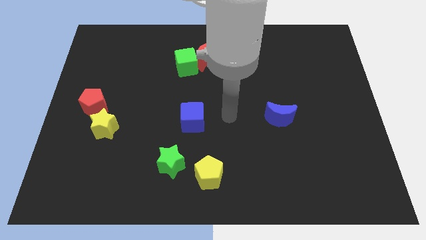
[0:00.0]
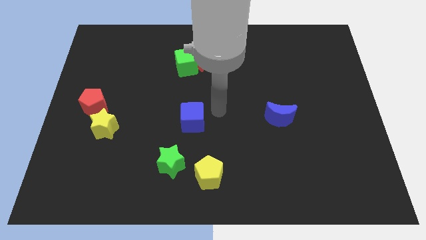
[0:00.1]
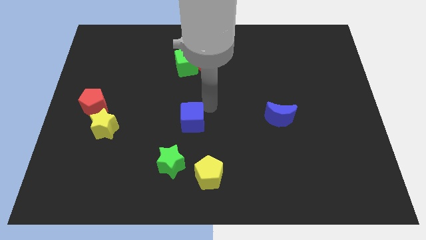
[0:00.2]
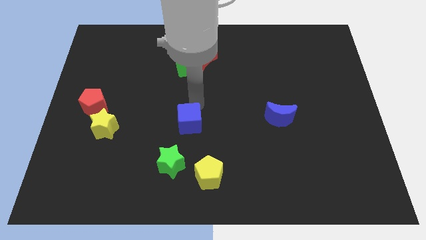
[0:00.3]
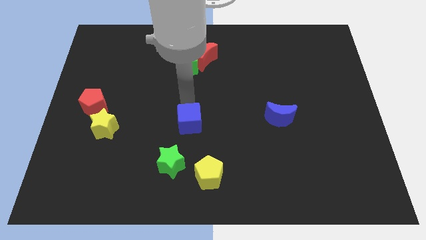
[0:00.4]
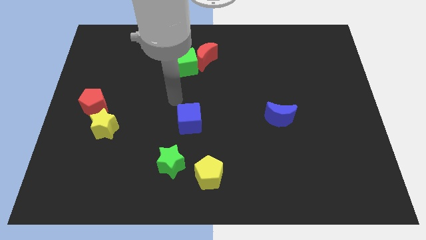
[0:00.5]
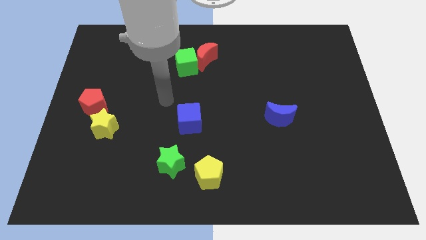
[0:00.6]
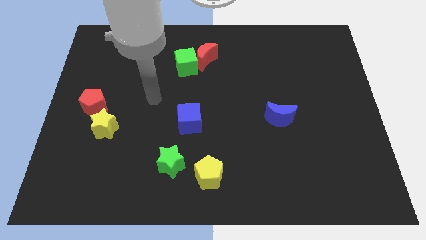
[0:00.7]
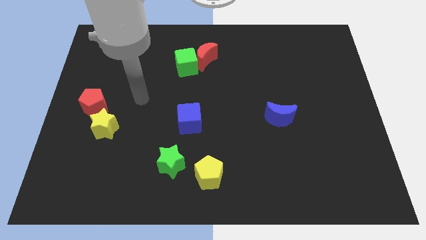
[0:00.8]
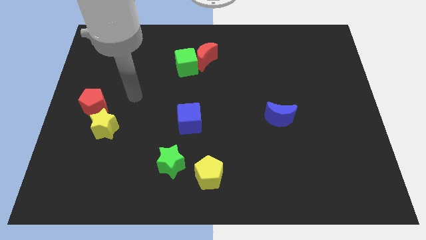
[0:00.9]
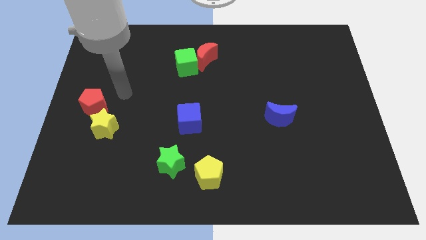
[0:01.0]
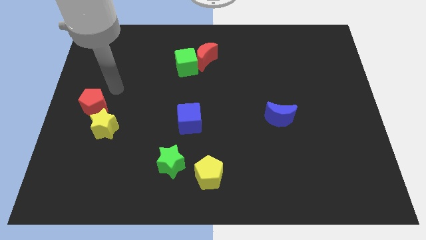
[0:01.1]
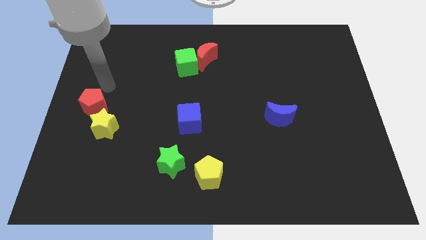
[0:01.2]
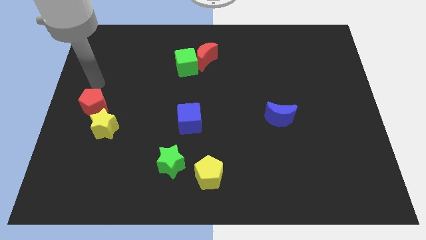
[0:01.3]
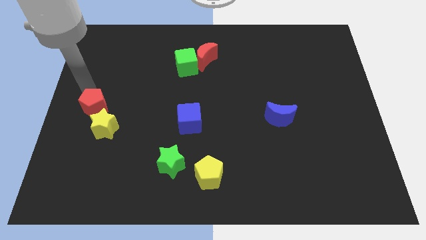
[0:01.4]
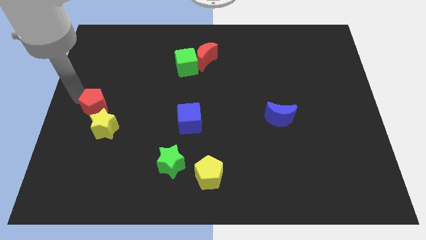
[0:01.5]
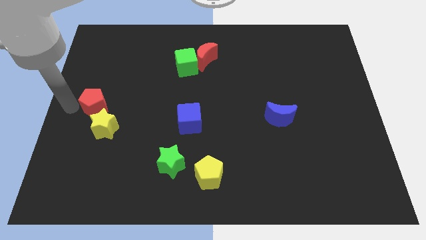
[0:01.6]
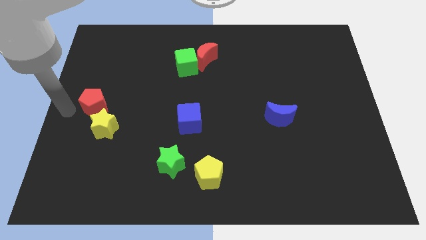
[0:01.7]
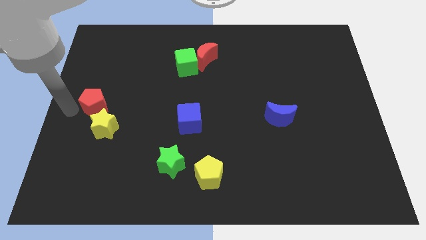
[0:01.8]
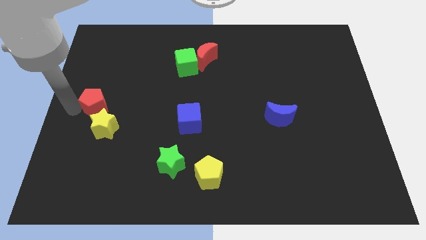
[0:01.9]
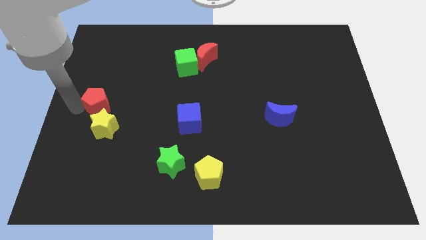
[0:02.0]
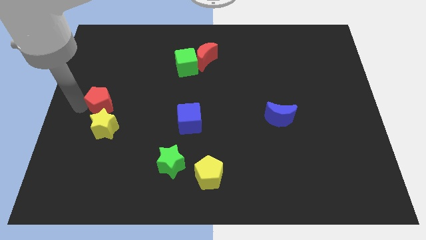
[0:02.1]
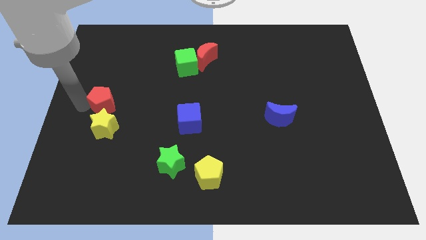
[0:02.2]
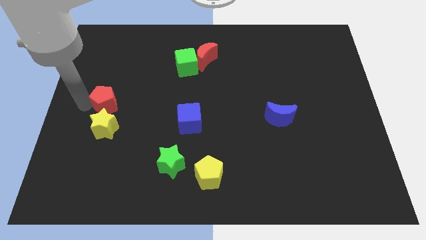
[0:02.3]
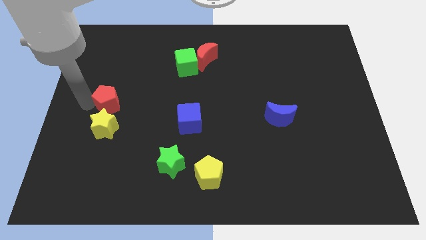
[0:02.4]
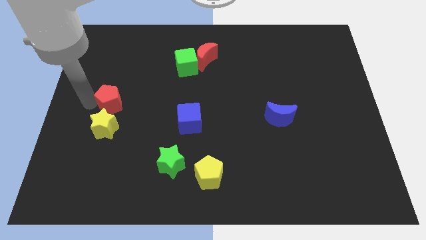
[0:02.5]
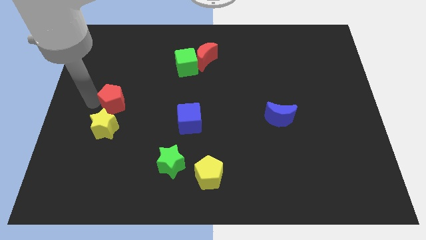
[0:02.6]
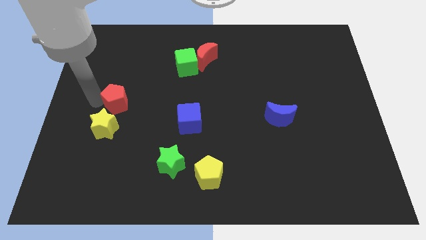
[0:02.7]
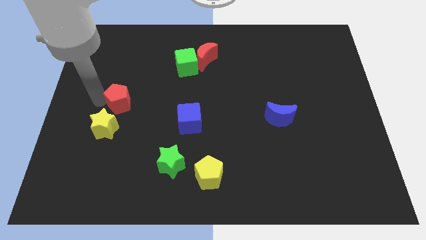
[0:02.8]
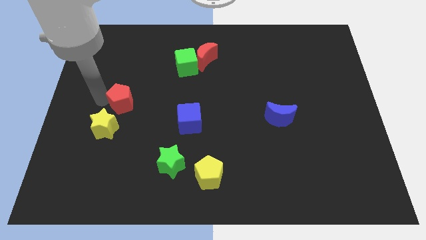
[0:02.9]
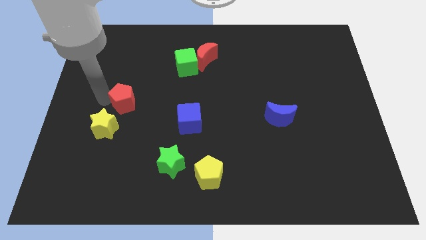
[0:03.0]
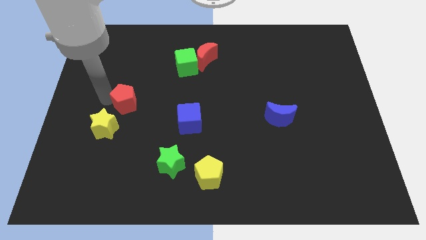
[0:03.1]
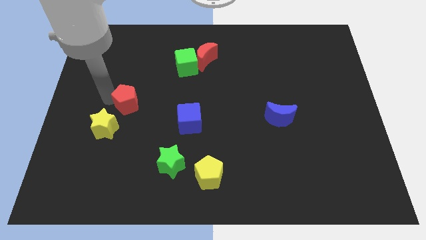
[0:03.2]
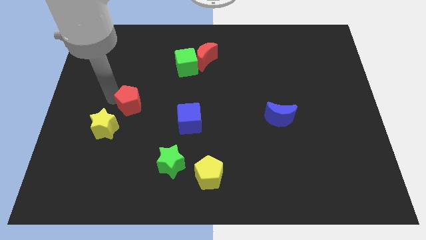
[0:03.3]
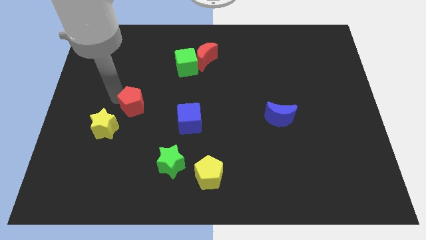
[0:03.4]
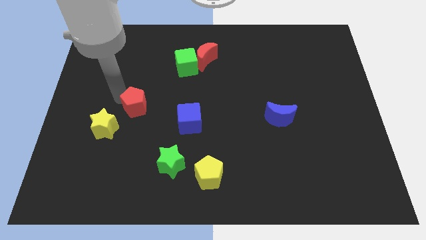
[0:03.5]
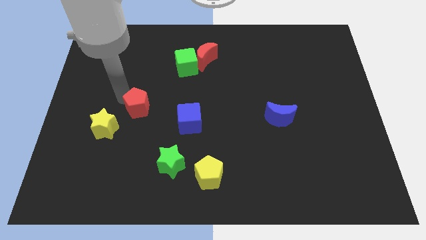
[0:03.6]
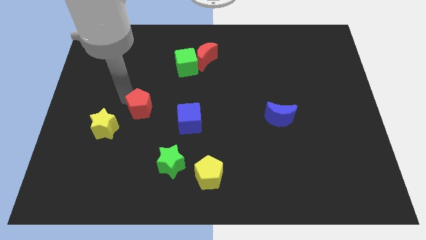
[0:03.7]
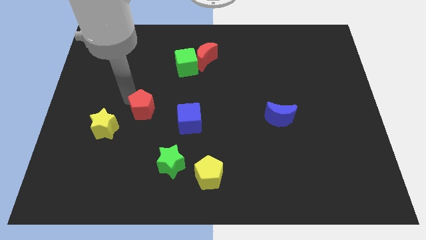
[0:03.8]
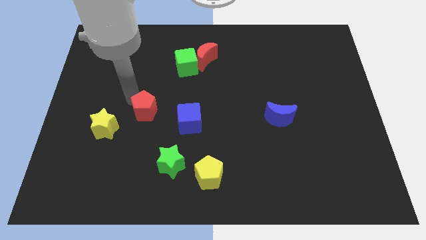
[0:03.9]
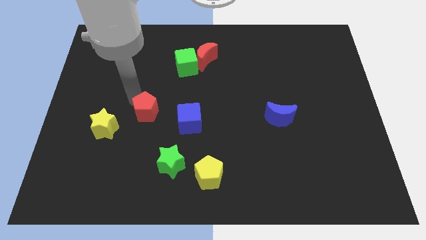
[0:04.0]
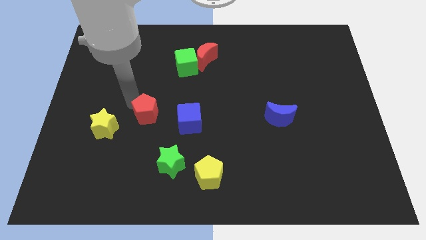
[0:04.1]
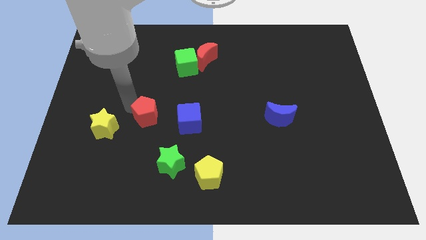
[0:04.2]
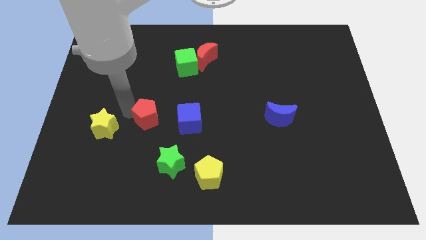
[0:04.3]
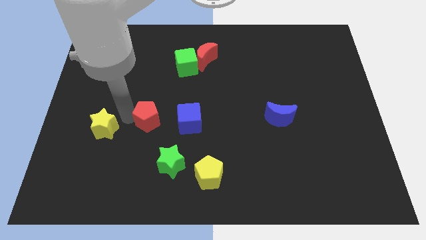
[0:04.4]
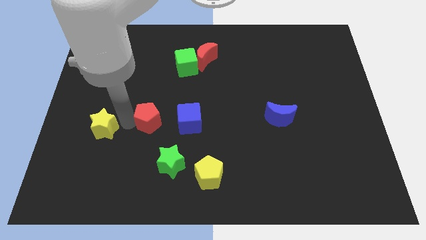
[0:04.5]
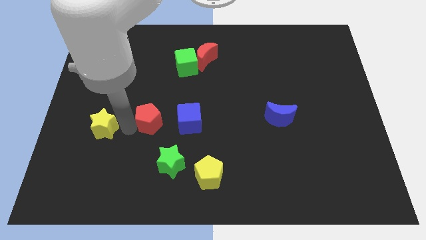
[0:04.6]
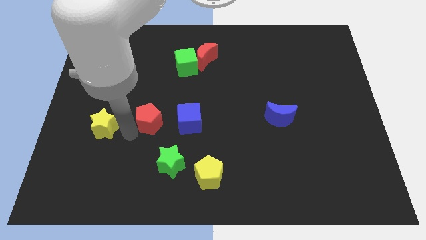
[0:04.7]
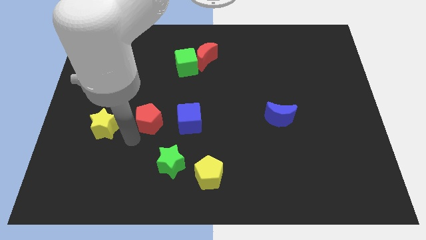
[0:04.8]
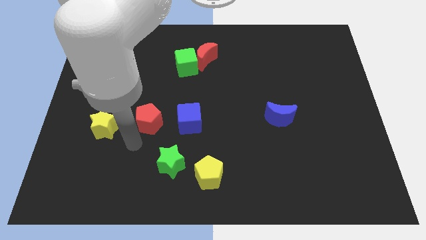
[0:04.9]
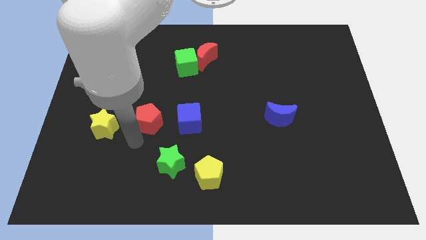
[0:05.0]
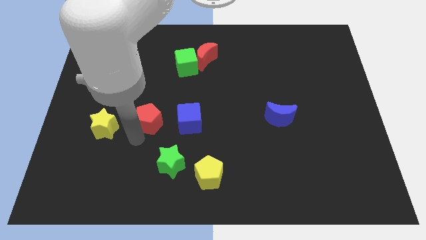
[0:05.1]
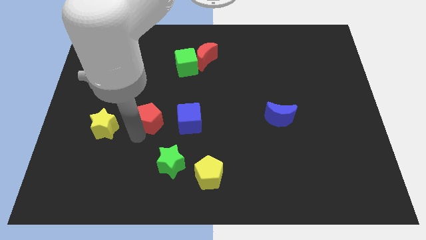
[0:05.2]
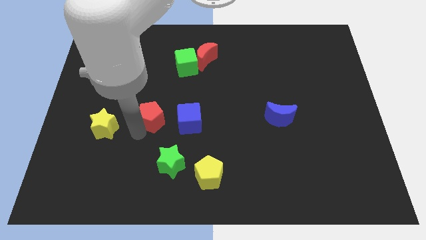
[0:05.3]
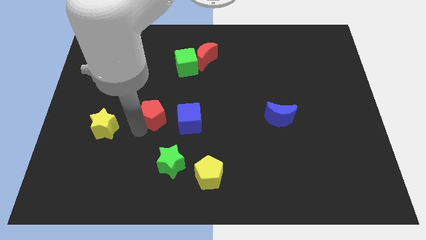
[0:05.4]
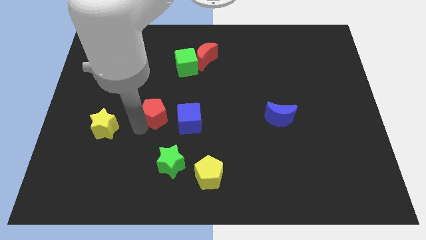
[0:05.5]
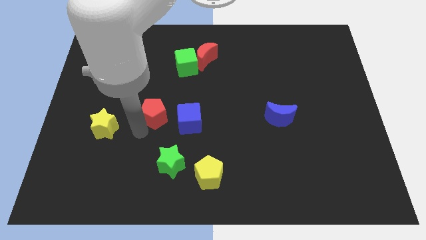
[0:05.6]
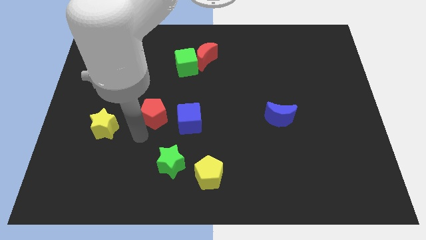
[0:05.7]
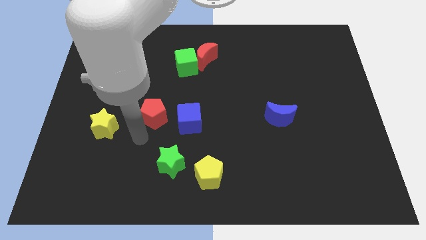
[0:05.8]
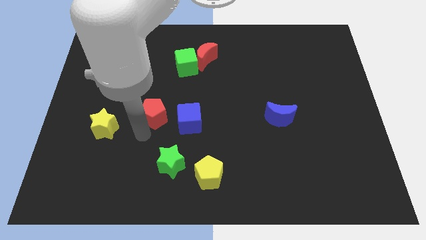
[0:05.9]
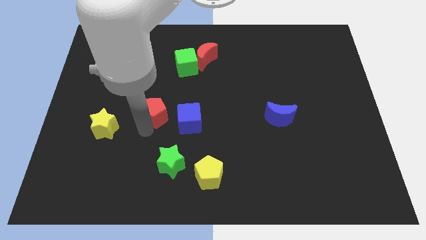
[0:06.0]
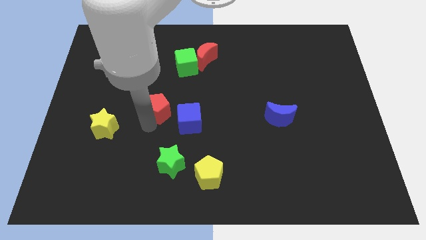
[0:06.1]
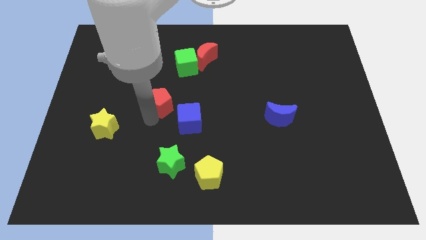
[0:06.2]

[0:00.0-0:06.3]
push the red pentagon to the middle

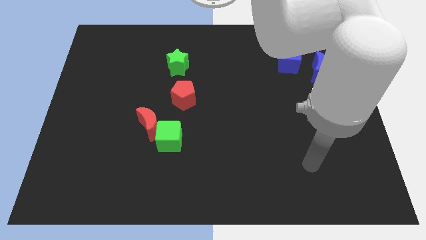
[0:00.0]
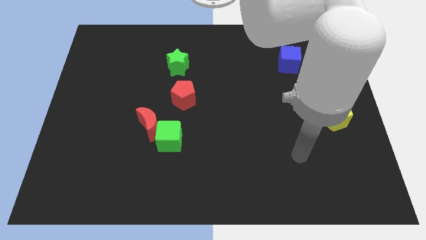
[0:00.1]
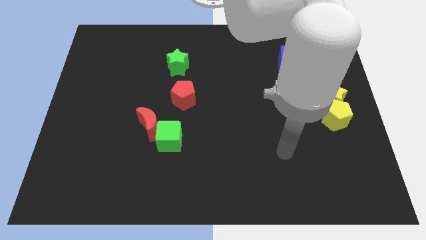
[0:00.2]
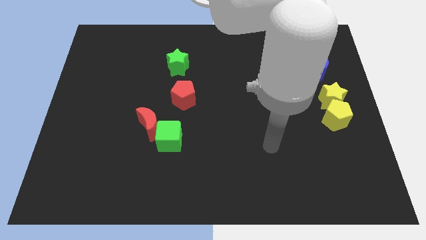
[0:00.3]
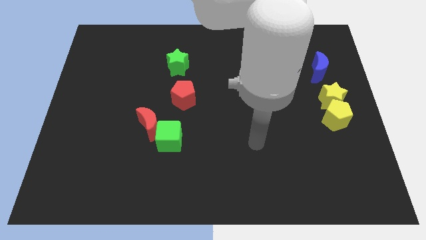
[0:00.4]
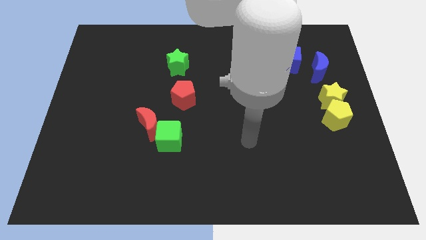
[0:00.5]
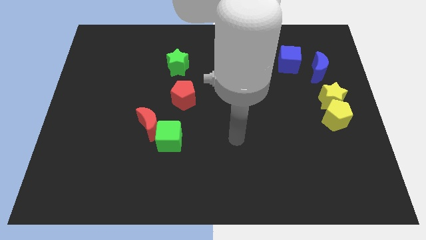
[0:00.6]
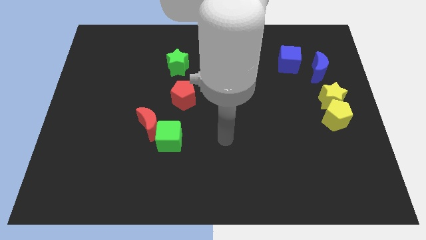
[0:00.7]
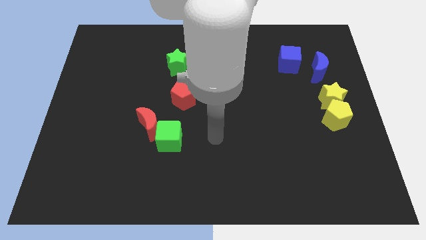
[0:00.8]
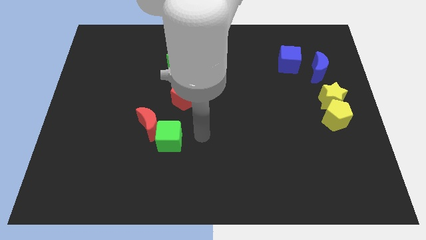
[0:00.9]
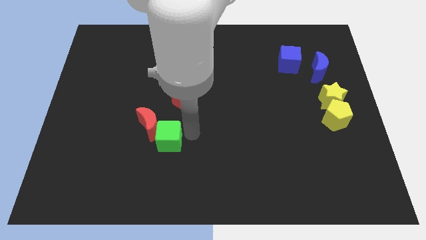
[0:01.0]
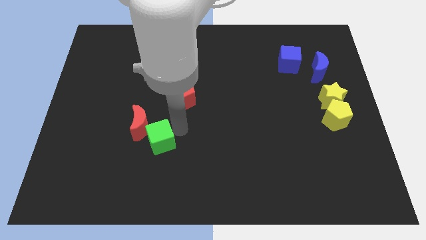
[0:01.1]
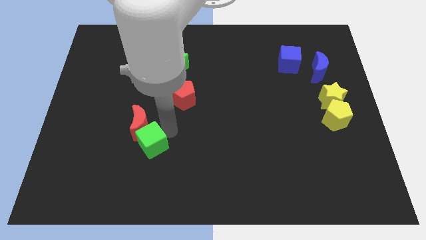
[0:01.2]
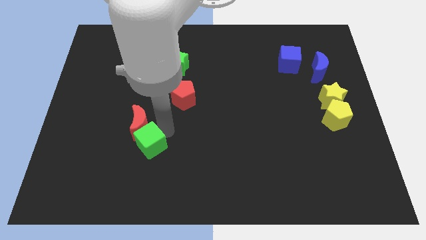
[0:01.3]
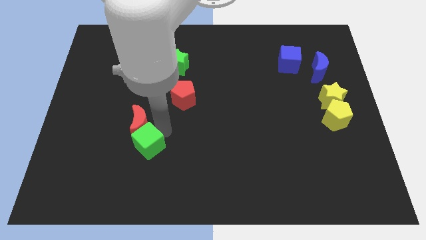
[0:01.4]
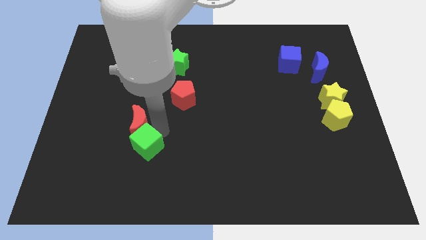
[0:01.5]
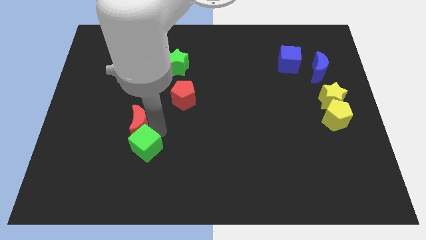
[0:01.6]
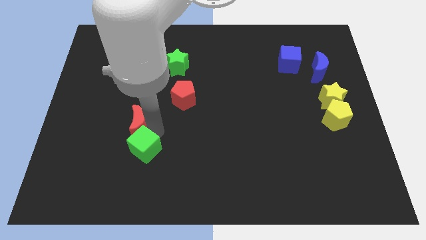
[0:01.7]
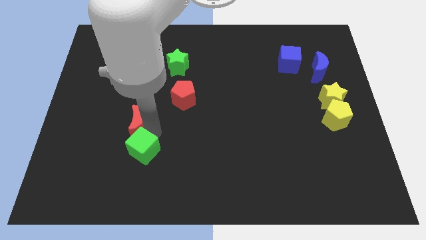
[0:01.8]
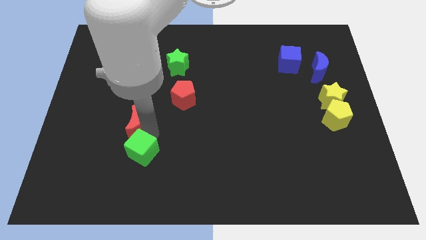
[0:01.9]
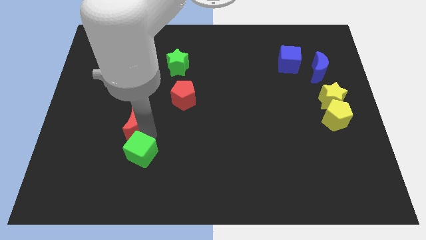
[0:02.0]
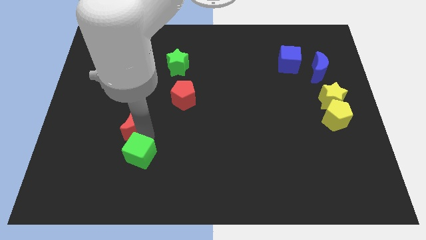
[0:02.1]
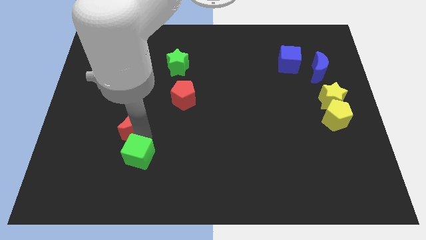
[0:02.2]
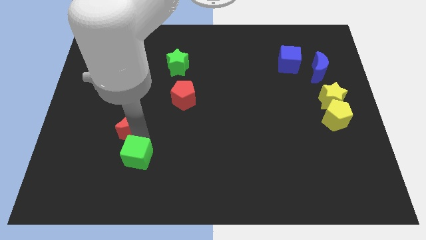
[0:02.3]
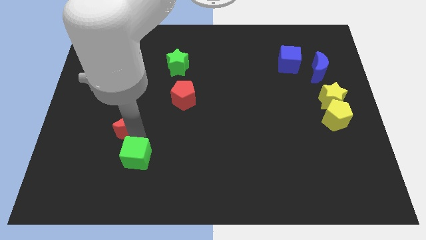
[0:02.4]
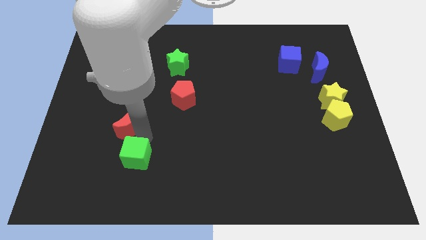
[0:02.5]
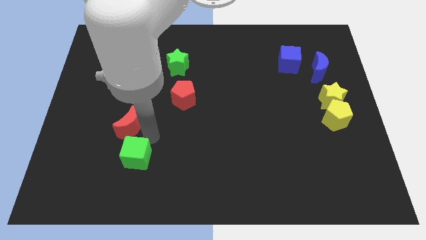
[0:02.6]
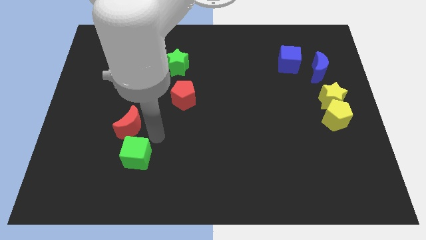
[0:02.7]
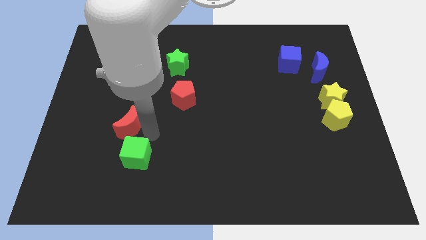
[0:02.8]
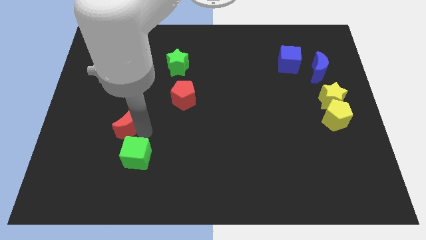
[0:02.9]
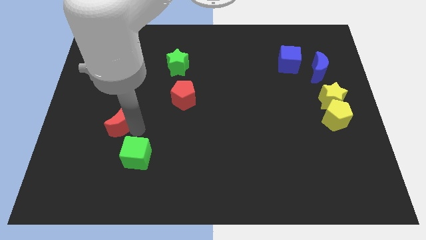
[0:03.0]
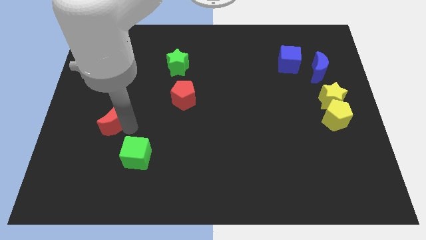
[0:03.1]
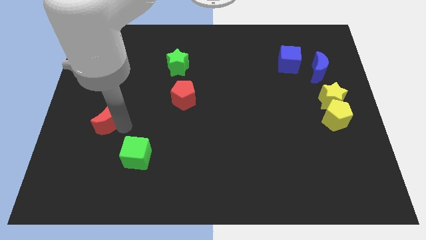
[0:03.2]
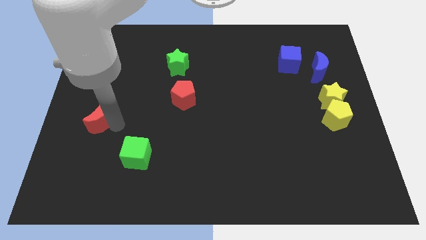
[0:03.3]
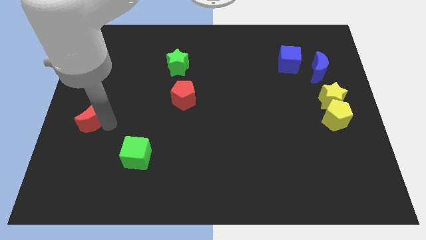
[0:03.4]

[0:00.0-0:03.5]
move the red moon to the left side
